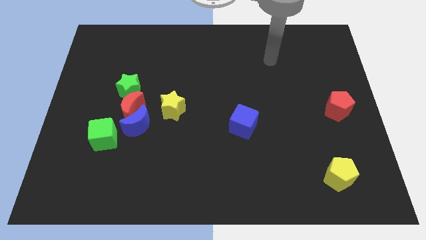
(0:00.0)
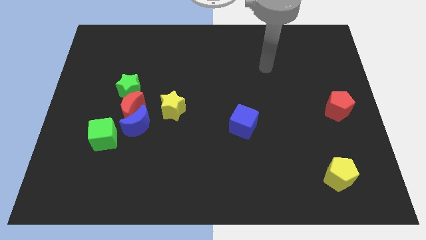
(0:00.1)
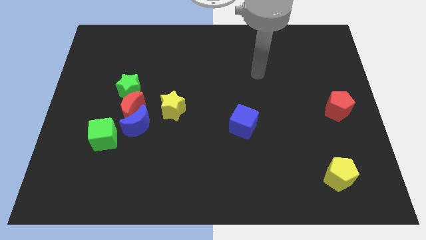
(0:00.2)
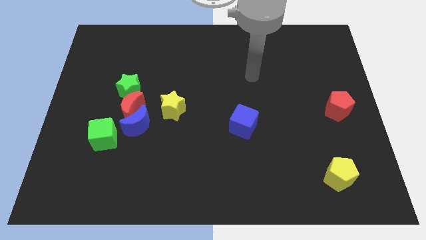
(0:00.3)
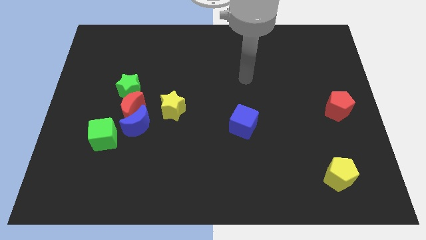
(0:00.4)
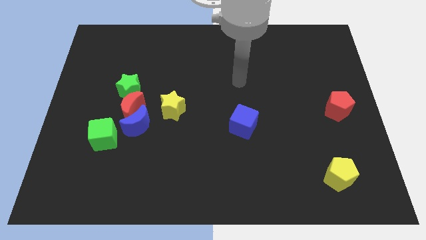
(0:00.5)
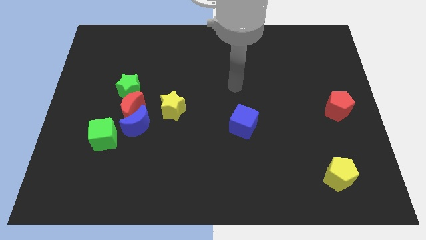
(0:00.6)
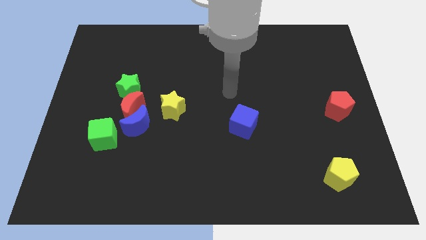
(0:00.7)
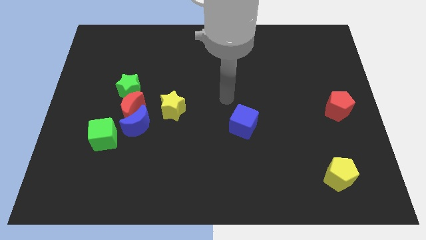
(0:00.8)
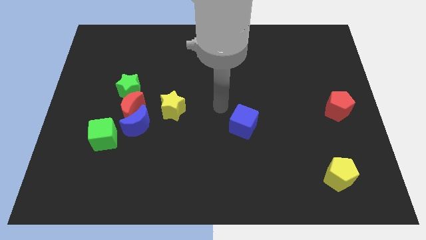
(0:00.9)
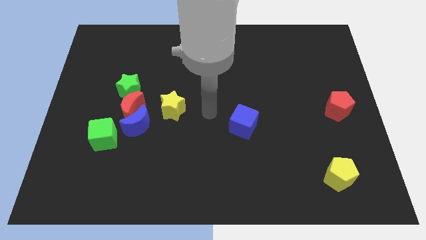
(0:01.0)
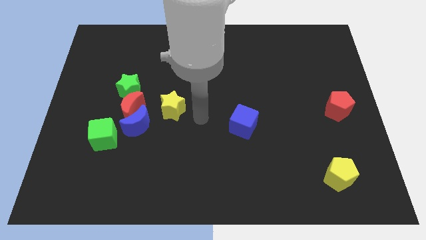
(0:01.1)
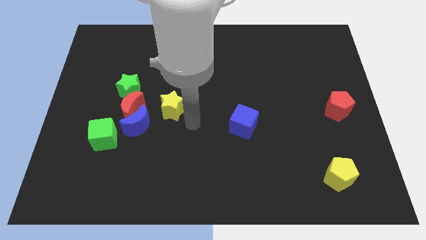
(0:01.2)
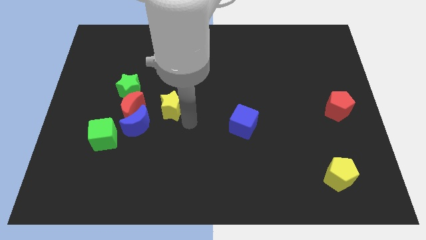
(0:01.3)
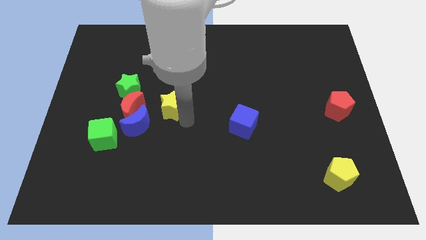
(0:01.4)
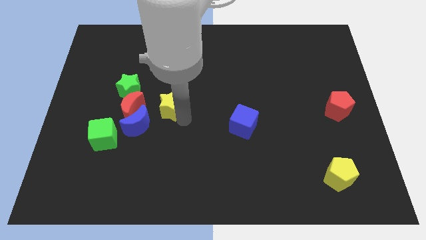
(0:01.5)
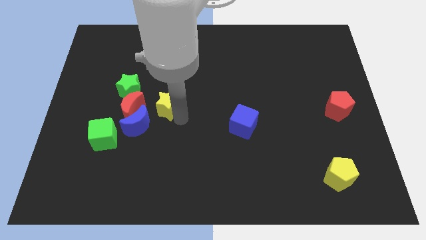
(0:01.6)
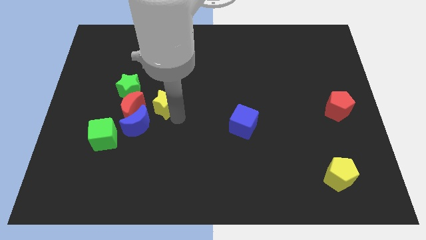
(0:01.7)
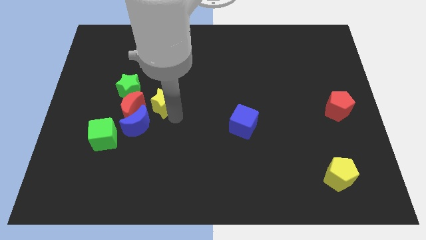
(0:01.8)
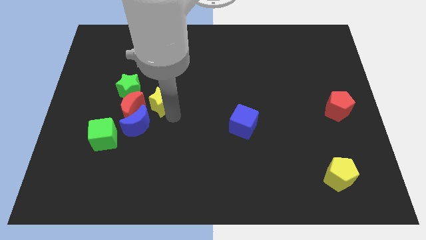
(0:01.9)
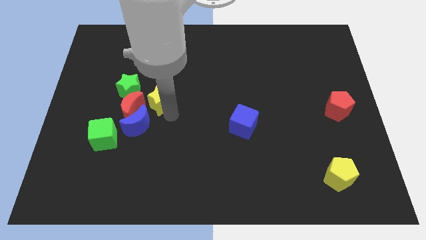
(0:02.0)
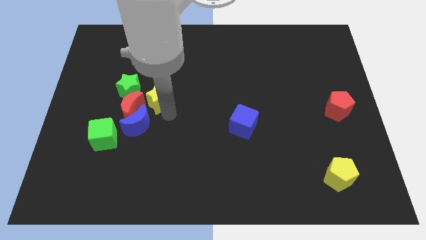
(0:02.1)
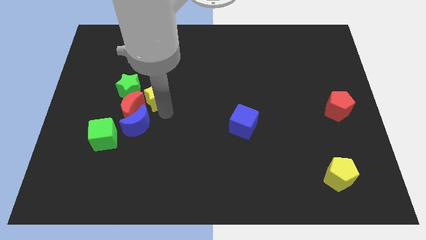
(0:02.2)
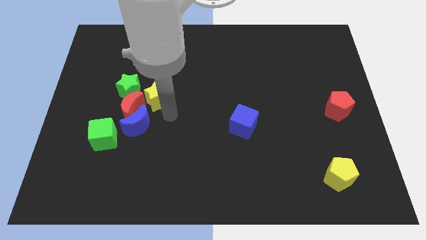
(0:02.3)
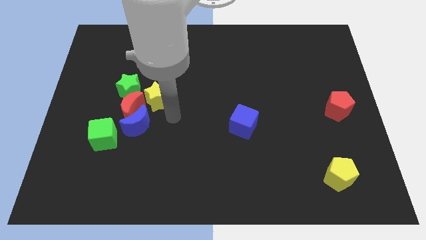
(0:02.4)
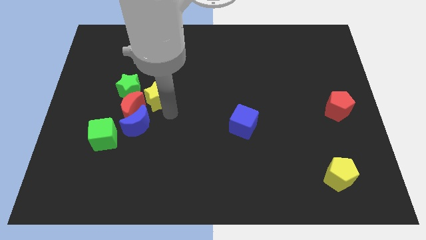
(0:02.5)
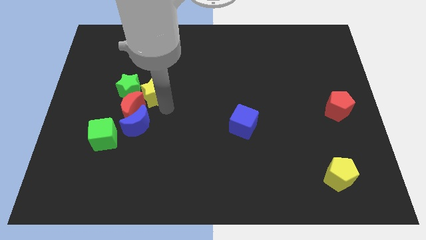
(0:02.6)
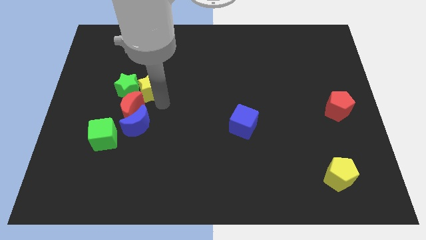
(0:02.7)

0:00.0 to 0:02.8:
slightly push the yellow star upwards and to the left

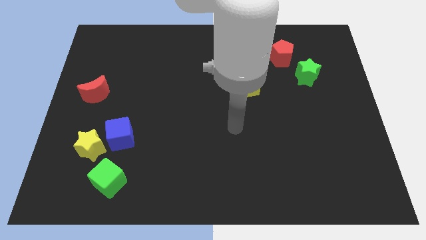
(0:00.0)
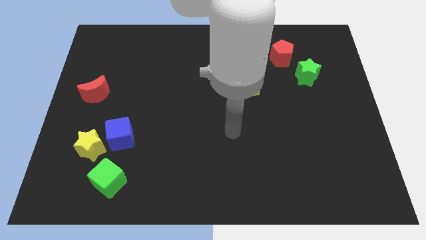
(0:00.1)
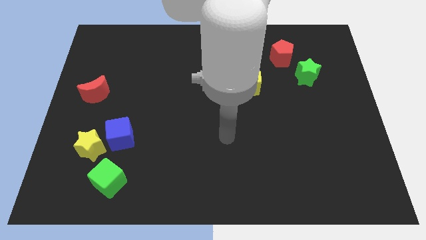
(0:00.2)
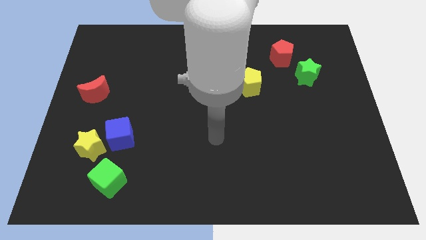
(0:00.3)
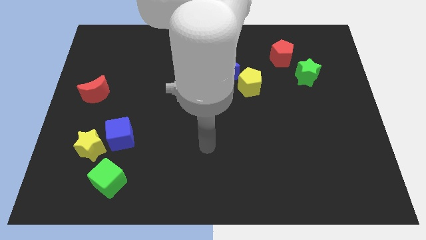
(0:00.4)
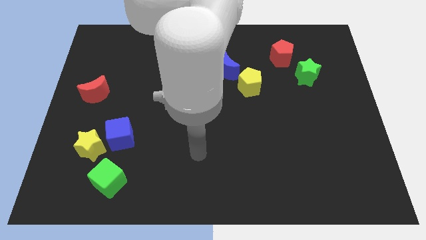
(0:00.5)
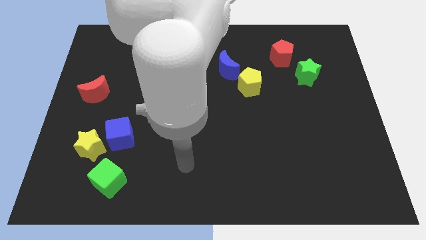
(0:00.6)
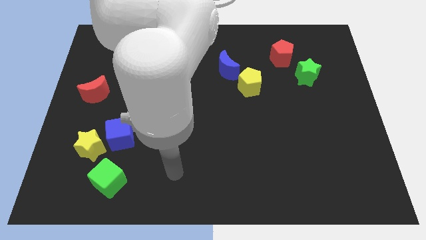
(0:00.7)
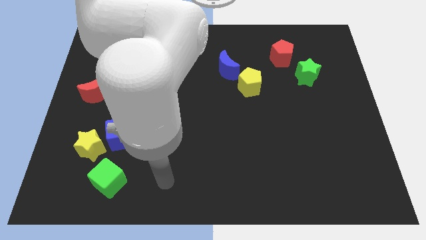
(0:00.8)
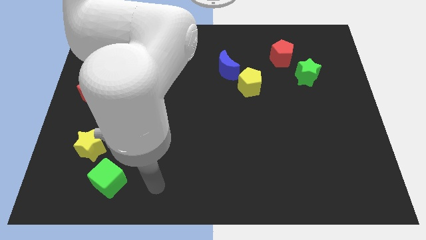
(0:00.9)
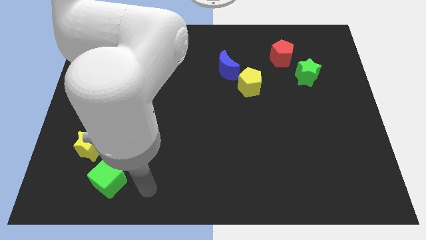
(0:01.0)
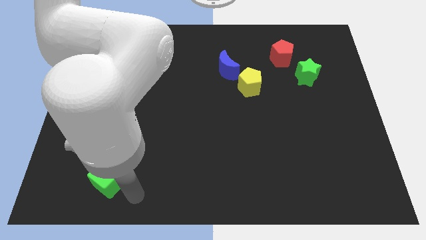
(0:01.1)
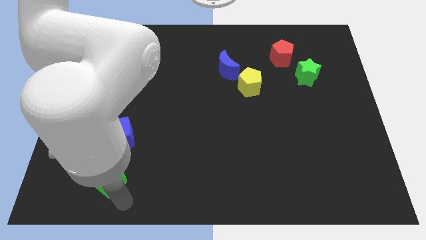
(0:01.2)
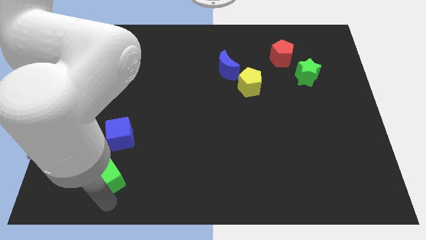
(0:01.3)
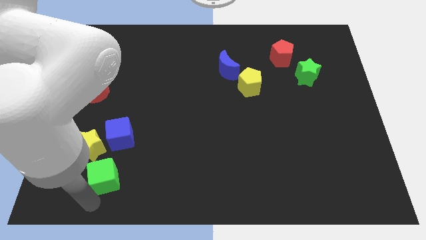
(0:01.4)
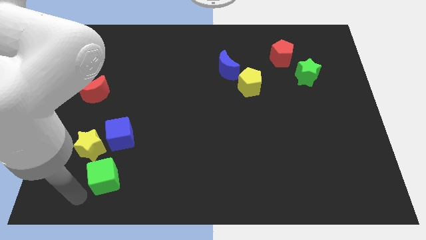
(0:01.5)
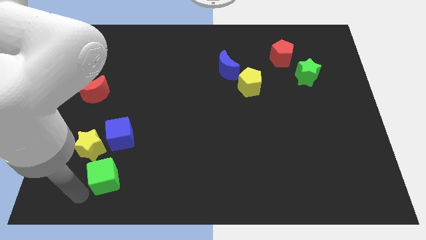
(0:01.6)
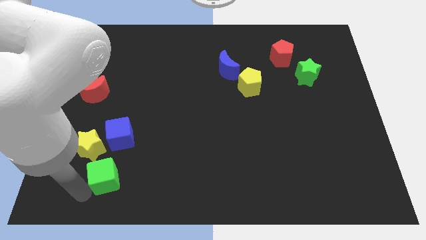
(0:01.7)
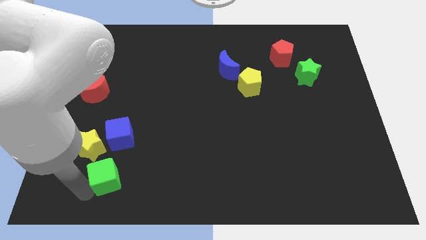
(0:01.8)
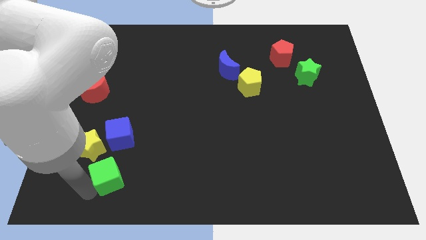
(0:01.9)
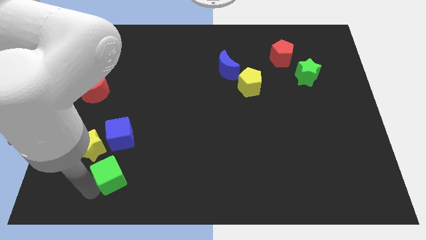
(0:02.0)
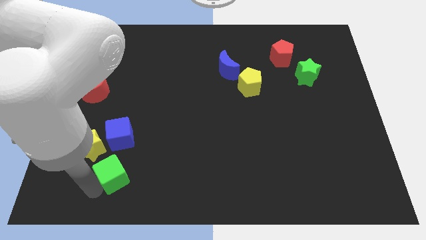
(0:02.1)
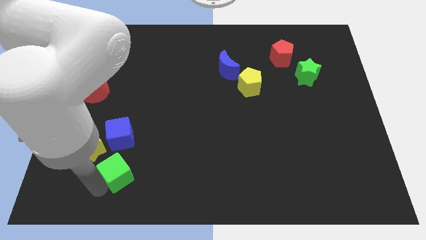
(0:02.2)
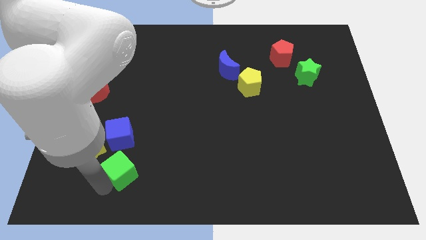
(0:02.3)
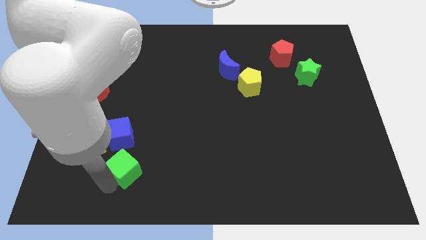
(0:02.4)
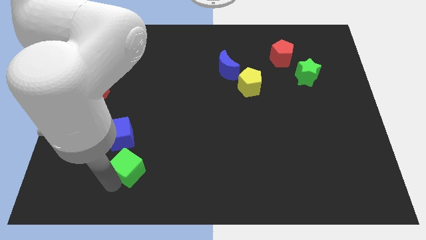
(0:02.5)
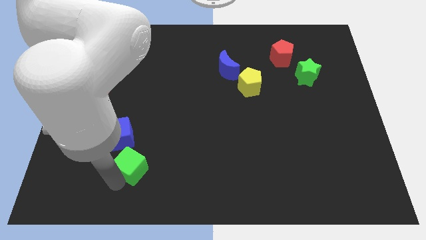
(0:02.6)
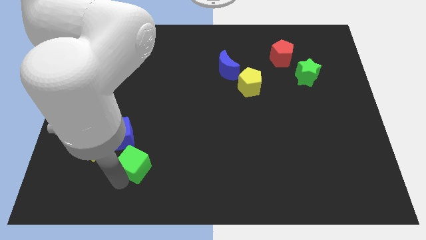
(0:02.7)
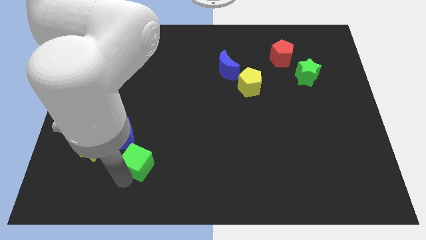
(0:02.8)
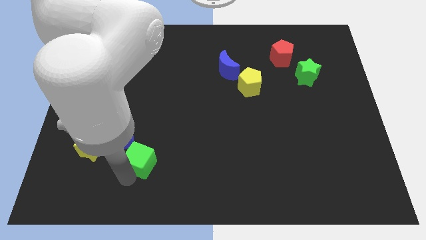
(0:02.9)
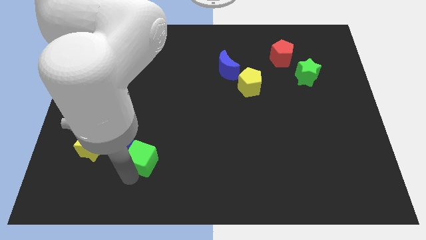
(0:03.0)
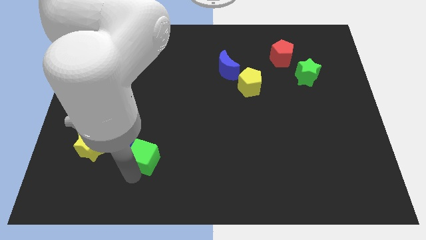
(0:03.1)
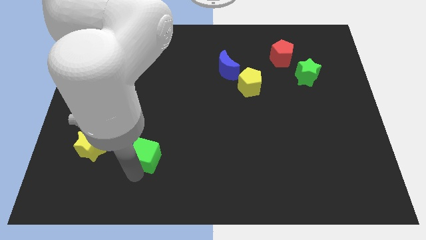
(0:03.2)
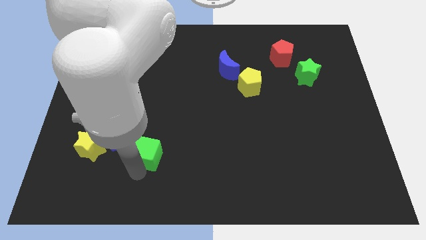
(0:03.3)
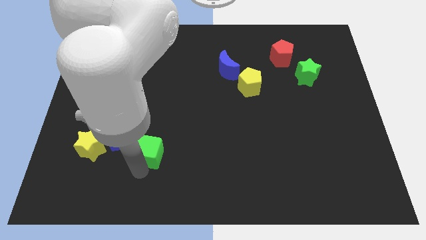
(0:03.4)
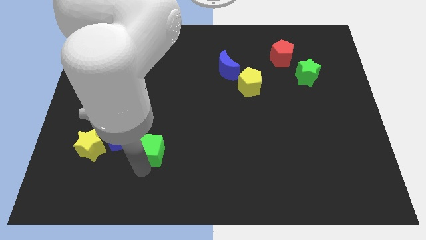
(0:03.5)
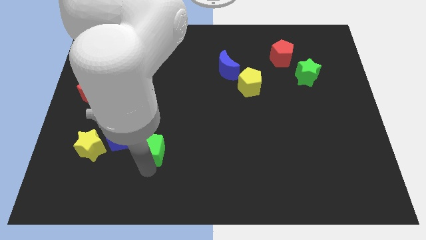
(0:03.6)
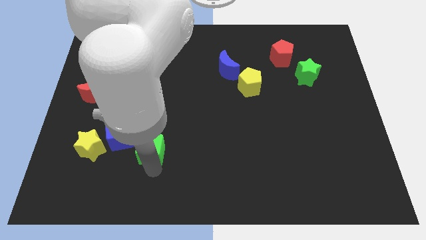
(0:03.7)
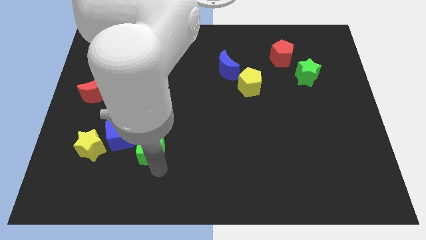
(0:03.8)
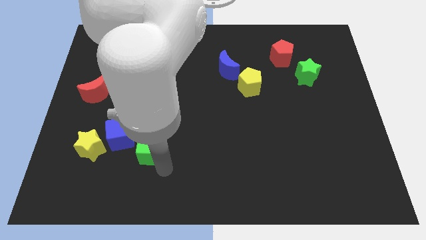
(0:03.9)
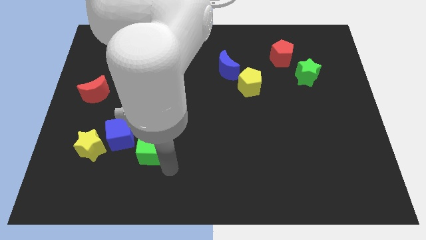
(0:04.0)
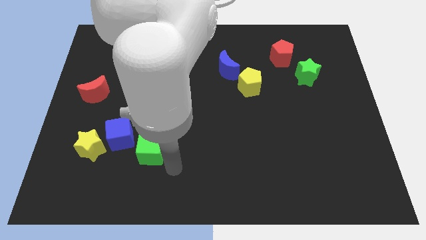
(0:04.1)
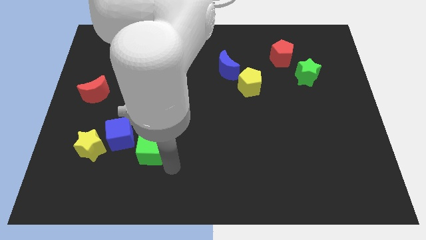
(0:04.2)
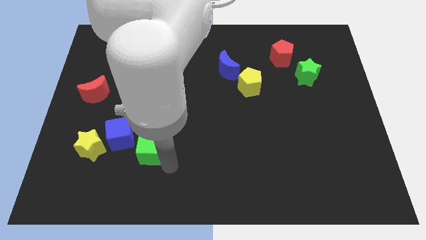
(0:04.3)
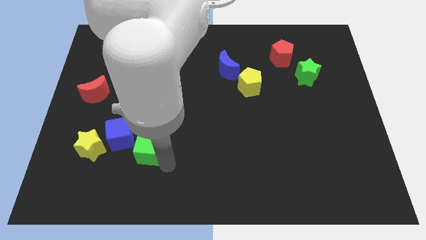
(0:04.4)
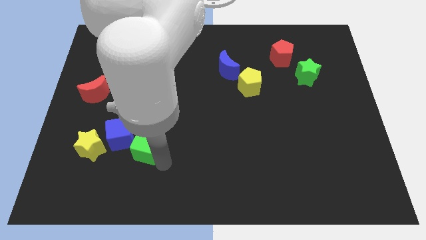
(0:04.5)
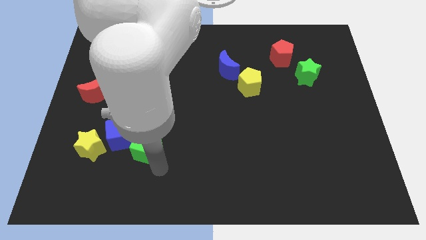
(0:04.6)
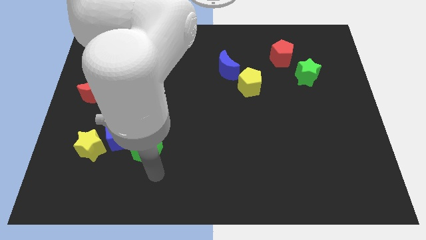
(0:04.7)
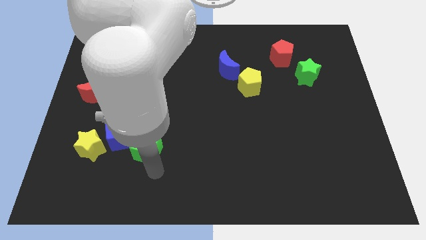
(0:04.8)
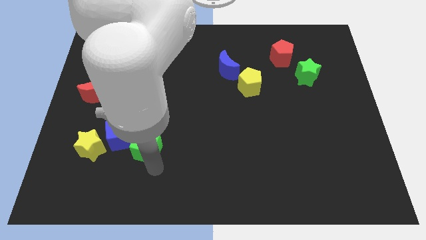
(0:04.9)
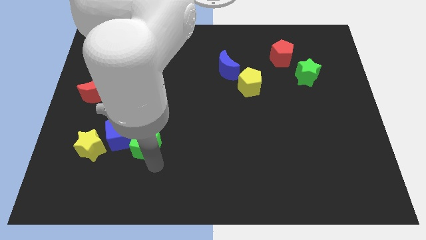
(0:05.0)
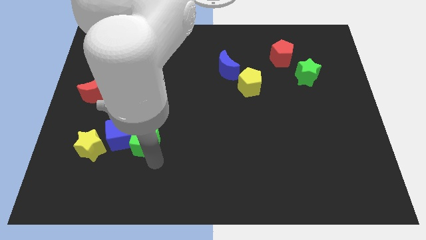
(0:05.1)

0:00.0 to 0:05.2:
slightly move the green cube upwards

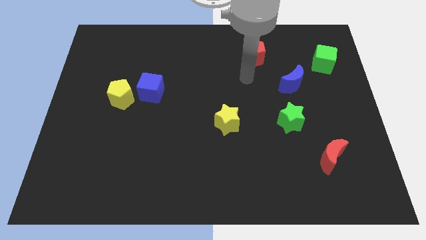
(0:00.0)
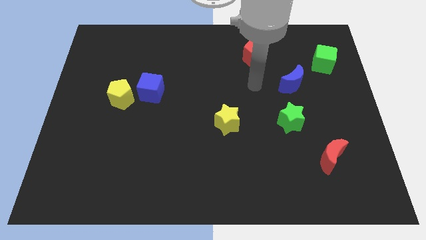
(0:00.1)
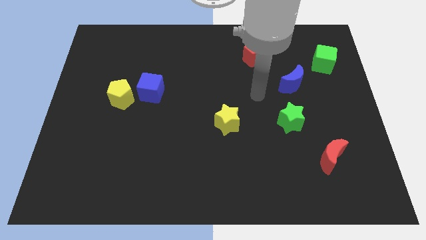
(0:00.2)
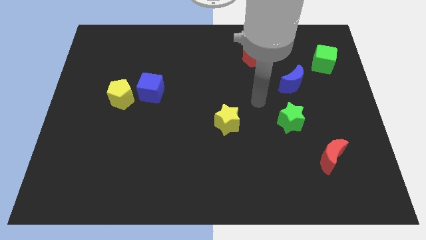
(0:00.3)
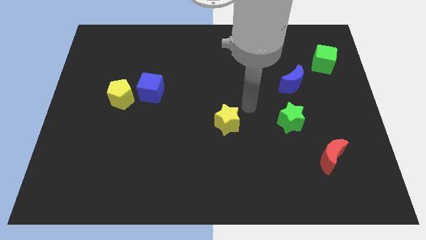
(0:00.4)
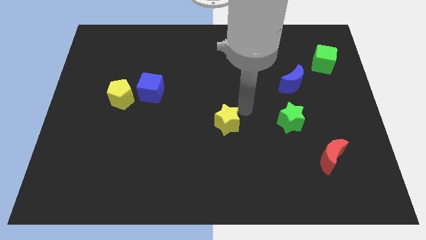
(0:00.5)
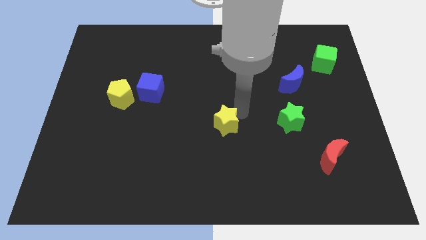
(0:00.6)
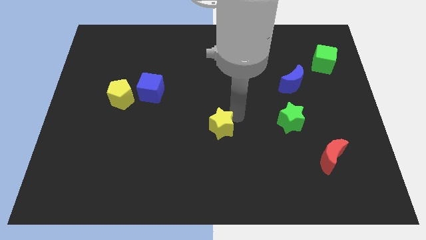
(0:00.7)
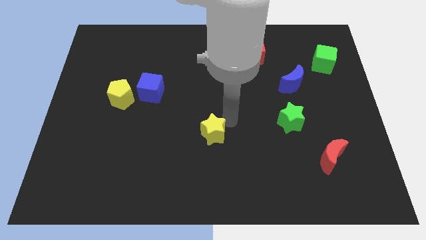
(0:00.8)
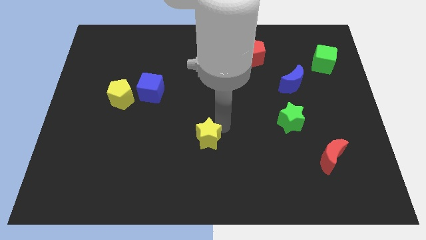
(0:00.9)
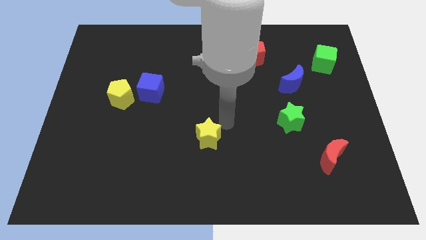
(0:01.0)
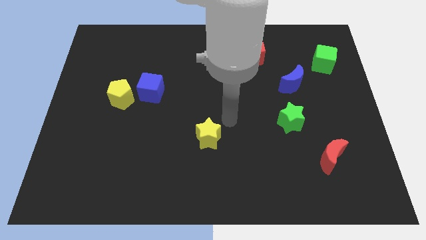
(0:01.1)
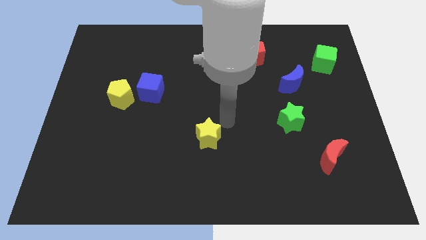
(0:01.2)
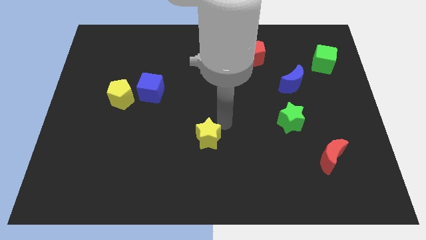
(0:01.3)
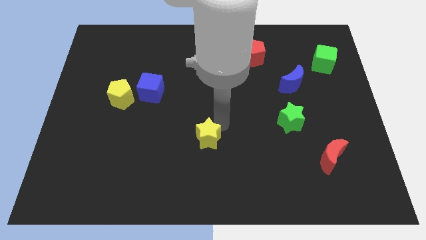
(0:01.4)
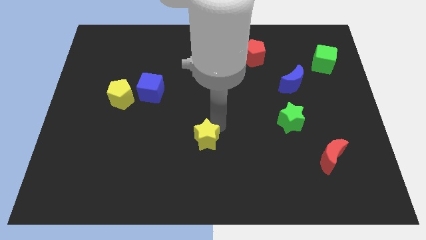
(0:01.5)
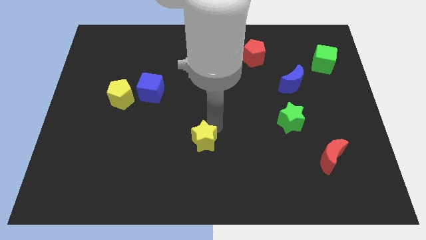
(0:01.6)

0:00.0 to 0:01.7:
move the yellow star slightly downwards and then to the left
